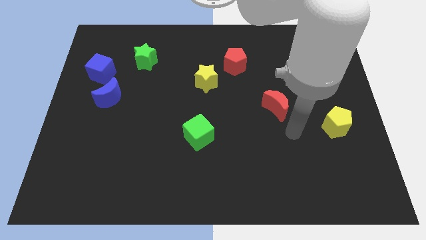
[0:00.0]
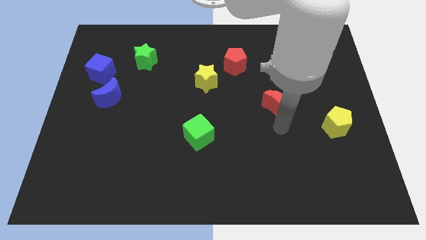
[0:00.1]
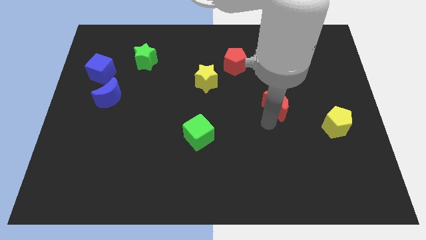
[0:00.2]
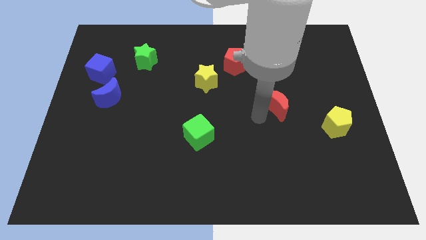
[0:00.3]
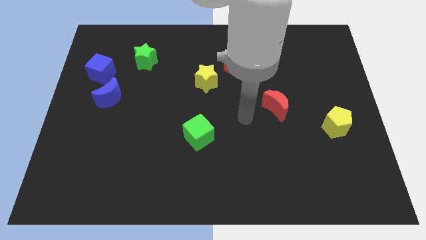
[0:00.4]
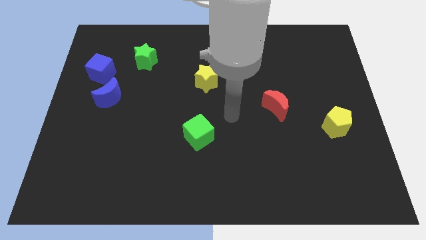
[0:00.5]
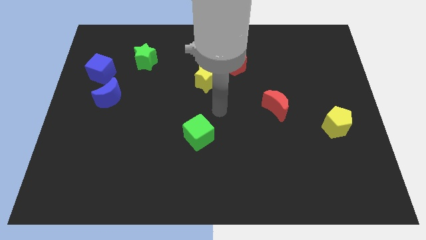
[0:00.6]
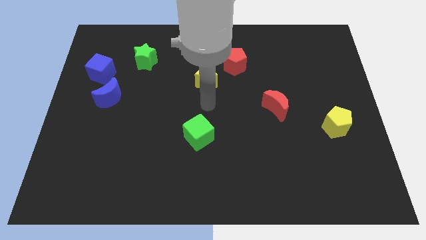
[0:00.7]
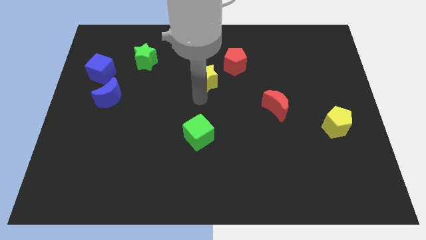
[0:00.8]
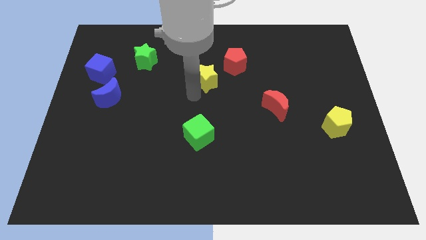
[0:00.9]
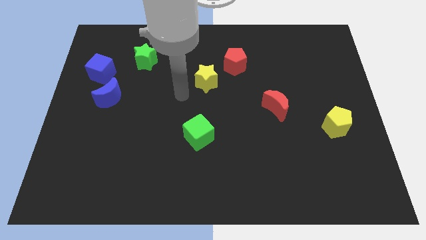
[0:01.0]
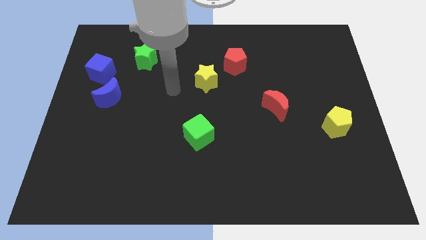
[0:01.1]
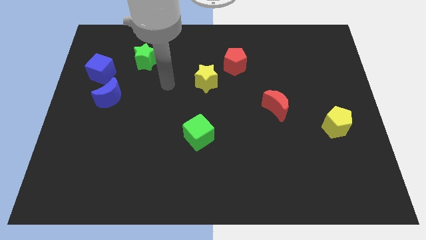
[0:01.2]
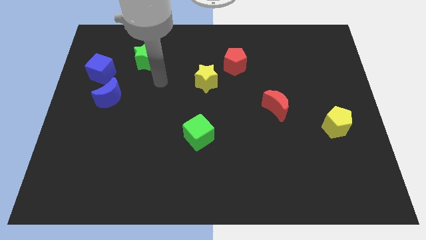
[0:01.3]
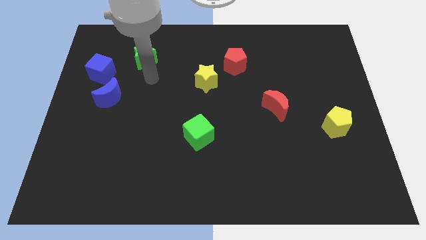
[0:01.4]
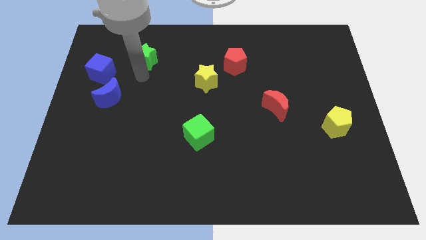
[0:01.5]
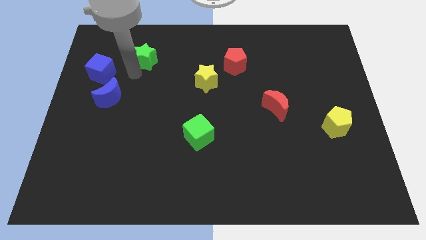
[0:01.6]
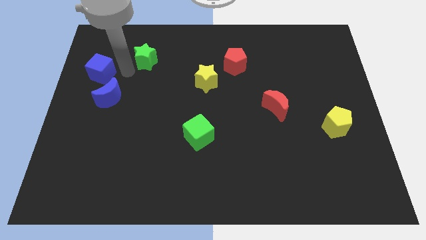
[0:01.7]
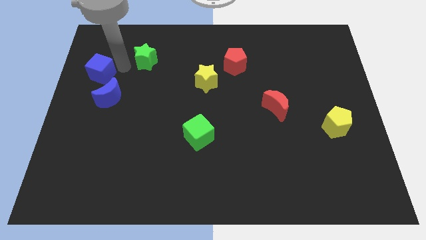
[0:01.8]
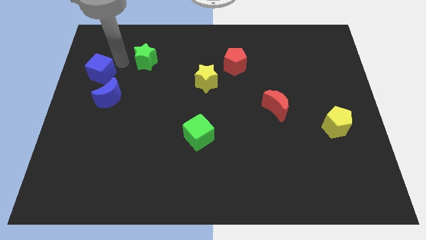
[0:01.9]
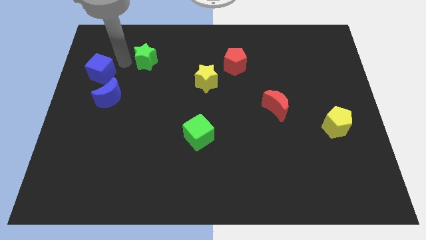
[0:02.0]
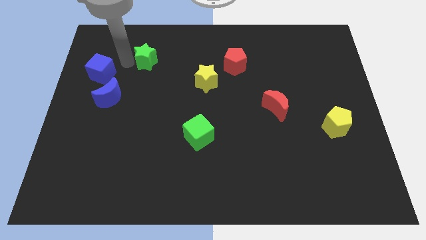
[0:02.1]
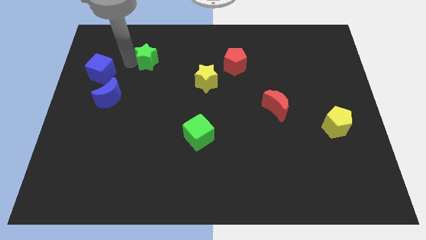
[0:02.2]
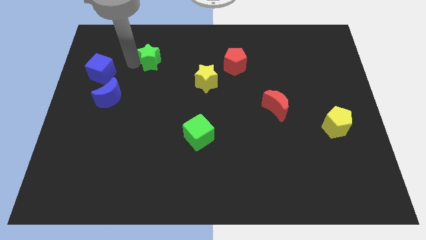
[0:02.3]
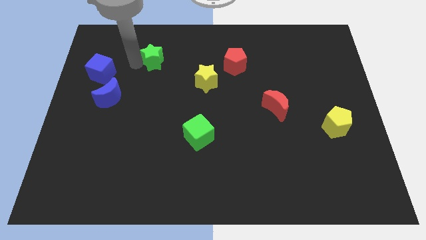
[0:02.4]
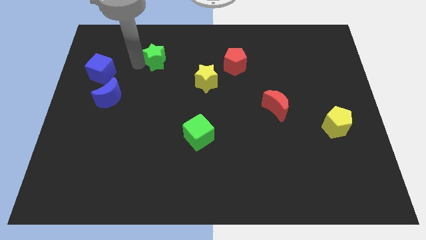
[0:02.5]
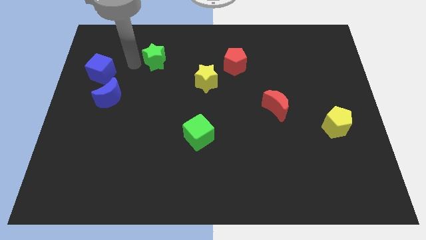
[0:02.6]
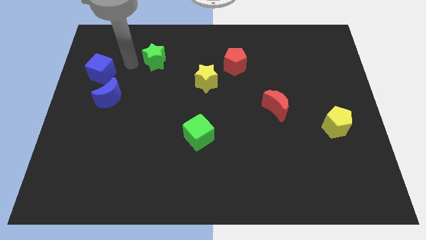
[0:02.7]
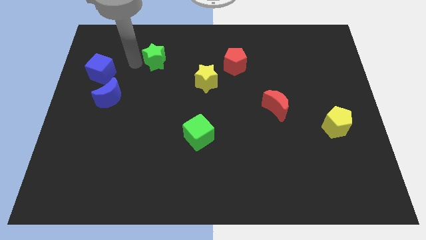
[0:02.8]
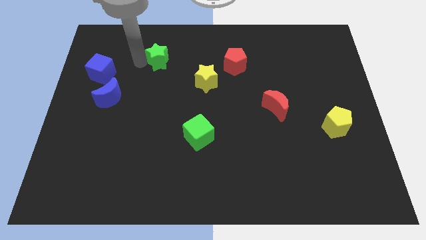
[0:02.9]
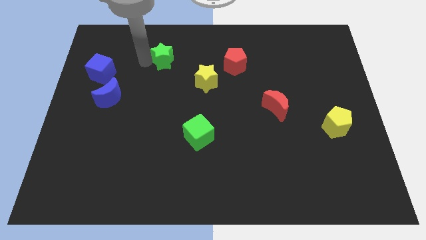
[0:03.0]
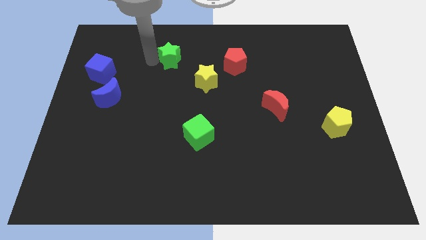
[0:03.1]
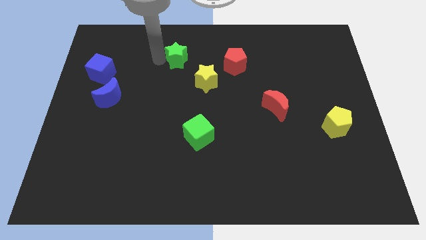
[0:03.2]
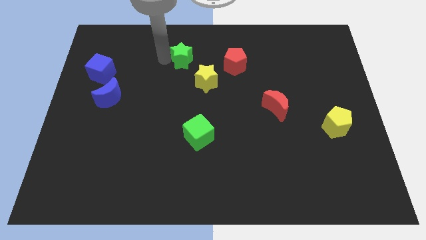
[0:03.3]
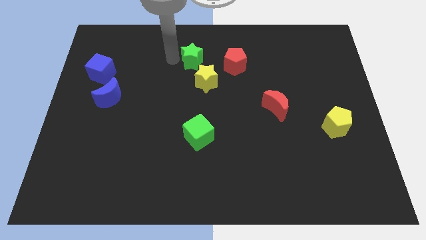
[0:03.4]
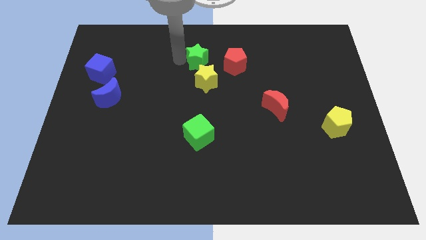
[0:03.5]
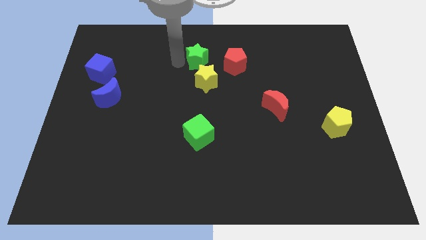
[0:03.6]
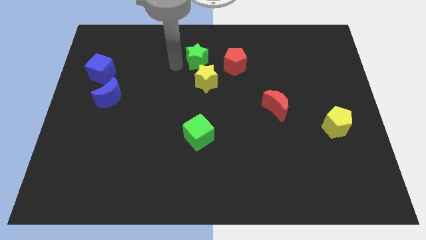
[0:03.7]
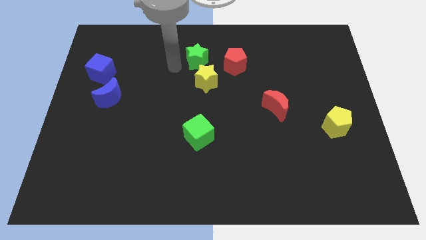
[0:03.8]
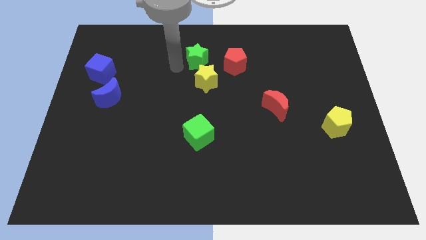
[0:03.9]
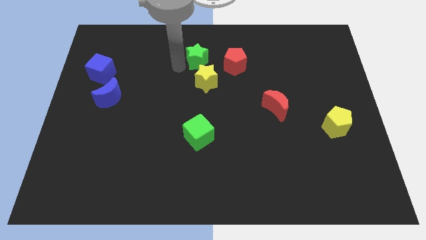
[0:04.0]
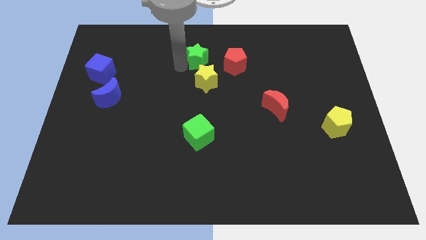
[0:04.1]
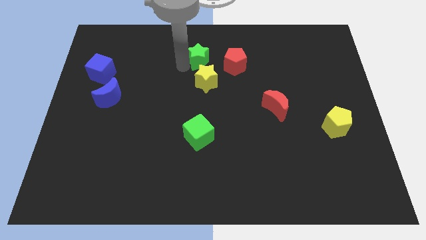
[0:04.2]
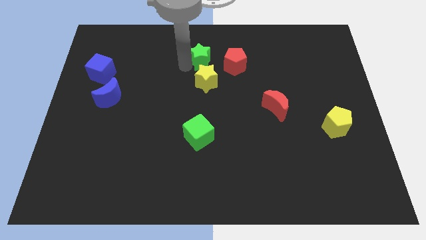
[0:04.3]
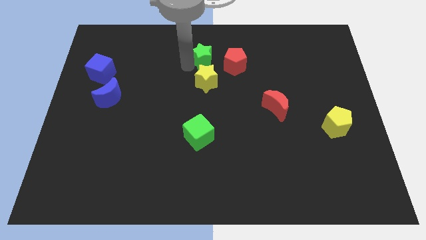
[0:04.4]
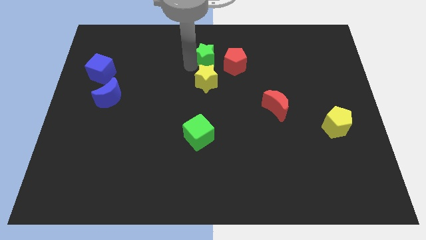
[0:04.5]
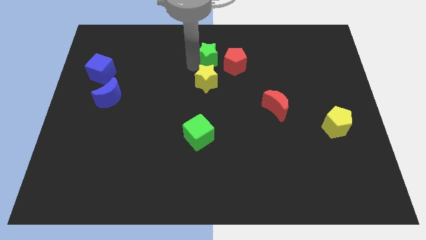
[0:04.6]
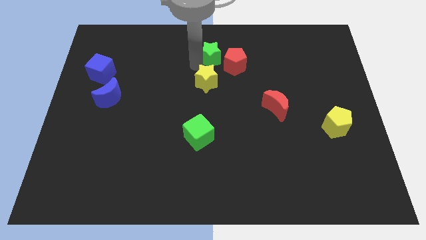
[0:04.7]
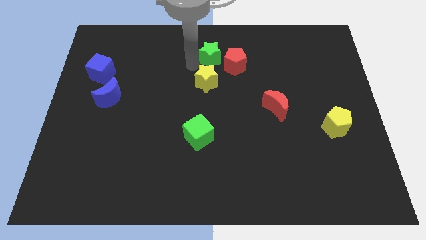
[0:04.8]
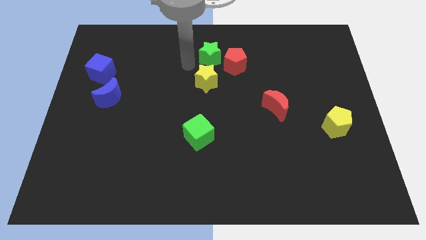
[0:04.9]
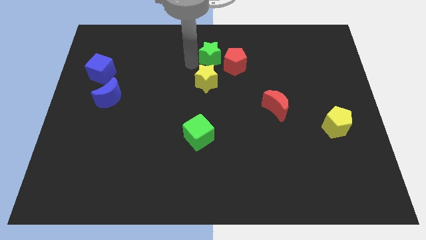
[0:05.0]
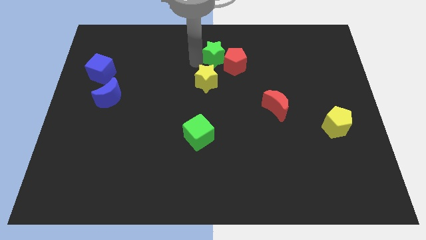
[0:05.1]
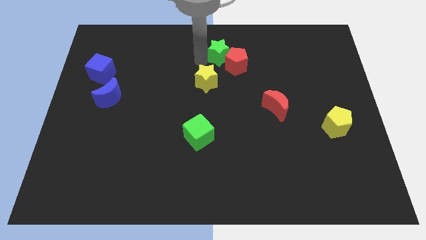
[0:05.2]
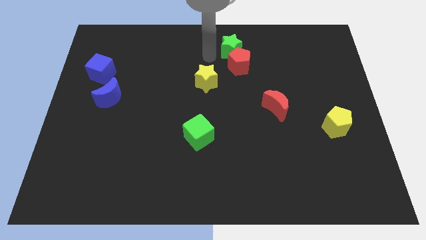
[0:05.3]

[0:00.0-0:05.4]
move the green star to the right

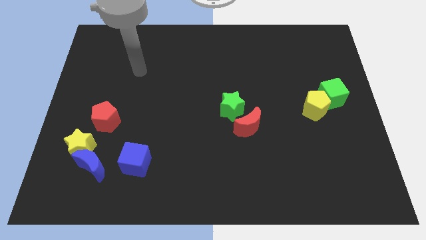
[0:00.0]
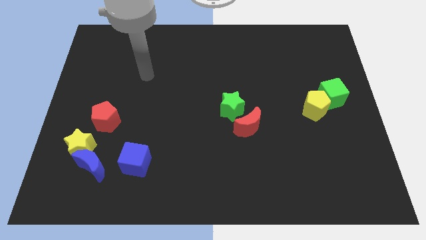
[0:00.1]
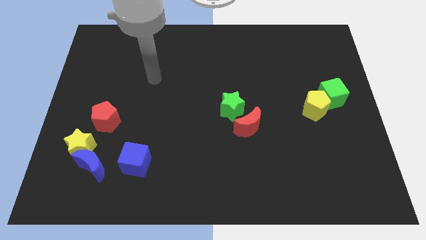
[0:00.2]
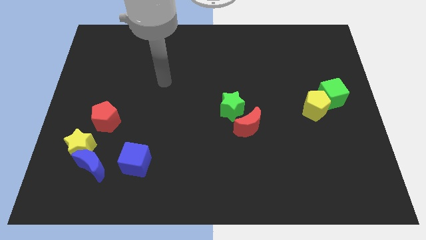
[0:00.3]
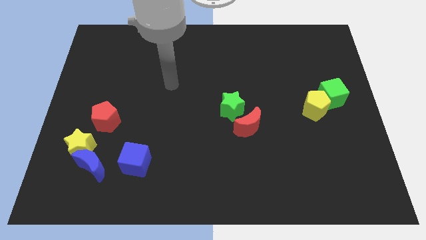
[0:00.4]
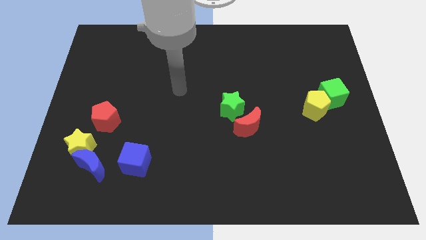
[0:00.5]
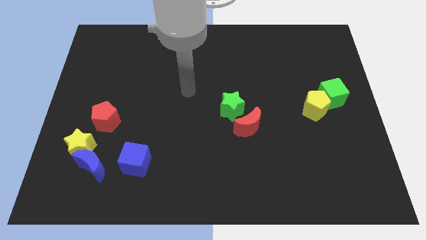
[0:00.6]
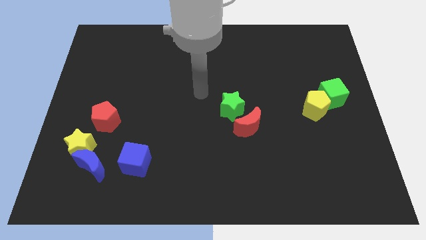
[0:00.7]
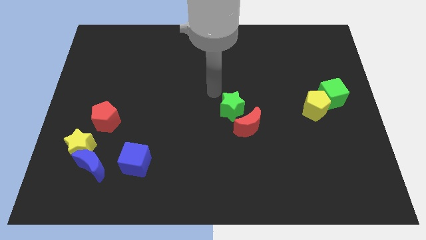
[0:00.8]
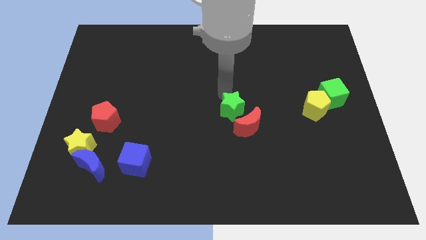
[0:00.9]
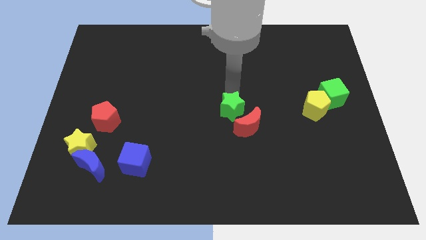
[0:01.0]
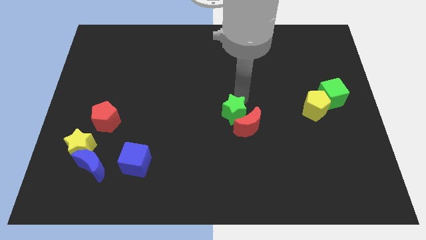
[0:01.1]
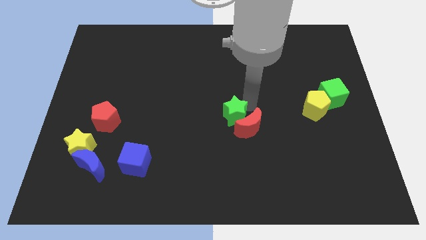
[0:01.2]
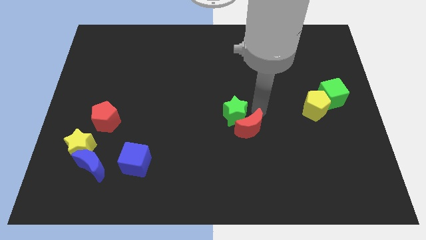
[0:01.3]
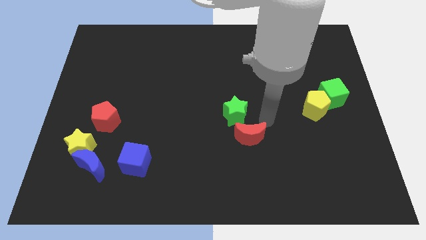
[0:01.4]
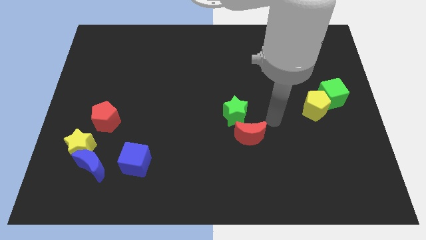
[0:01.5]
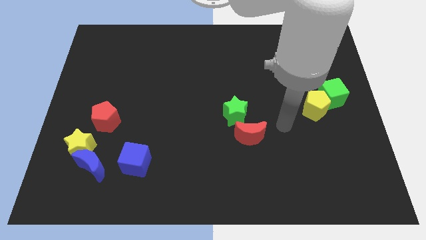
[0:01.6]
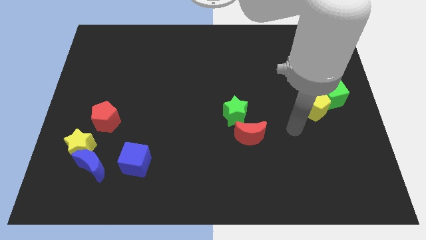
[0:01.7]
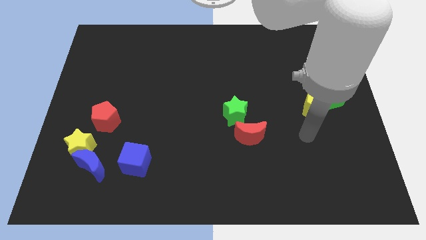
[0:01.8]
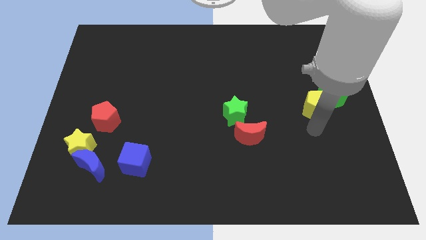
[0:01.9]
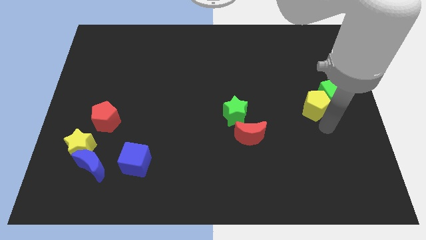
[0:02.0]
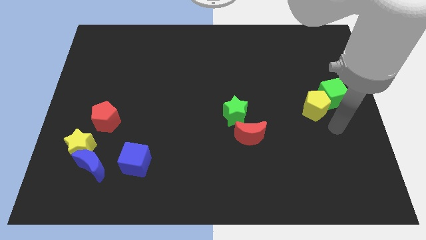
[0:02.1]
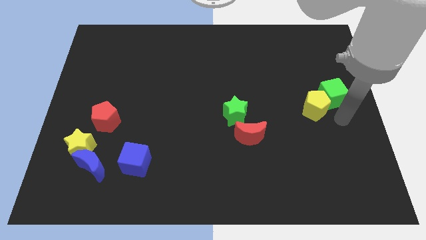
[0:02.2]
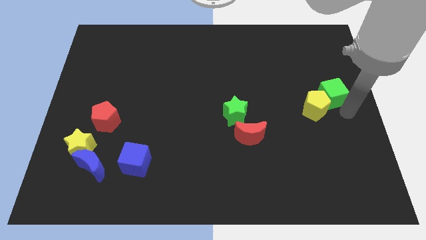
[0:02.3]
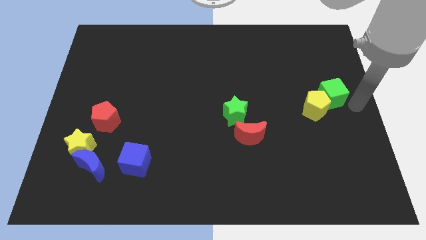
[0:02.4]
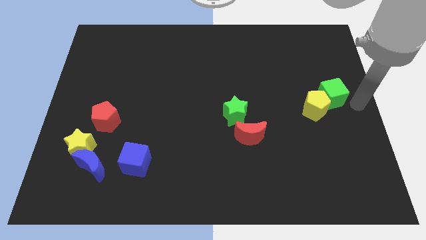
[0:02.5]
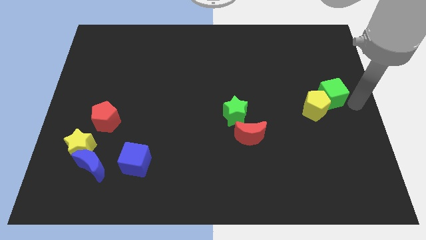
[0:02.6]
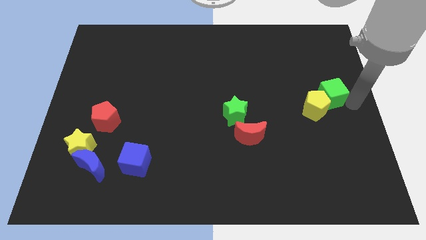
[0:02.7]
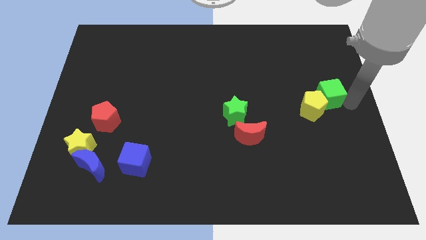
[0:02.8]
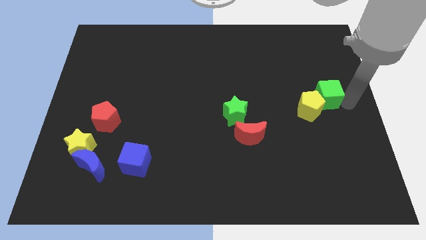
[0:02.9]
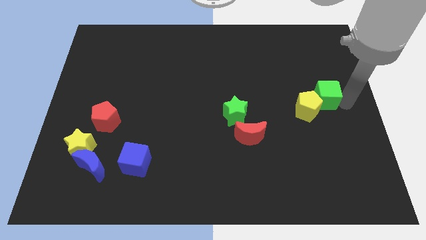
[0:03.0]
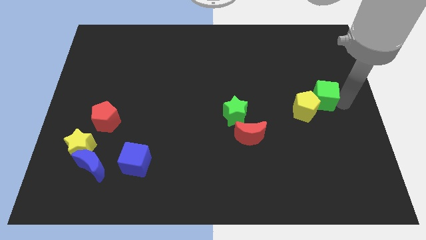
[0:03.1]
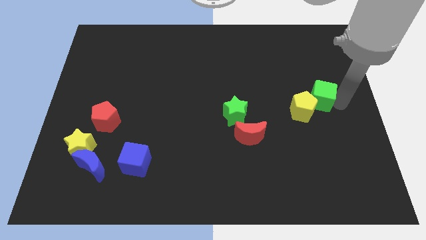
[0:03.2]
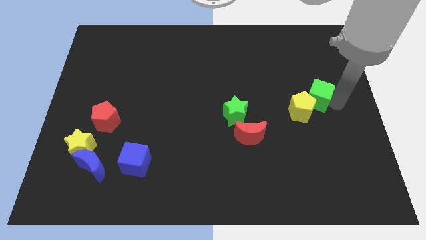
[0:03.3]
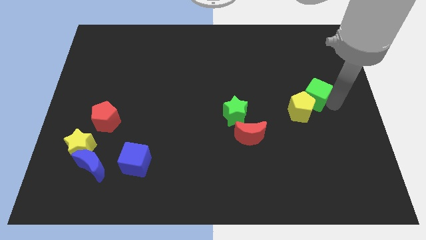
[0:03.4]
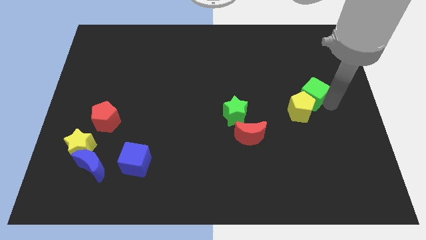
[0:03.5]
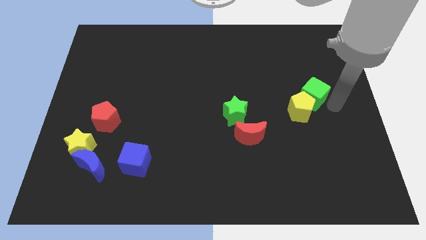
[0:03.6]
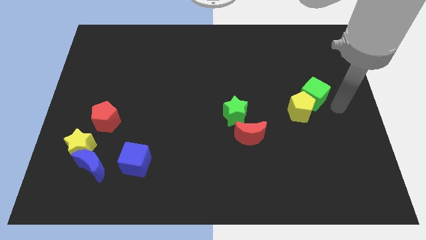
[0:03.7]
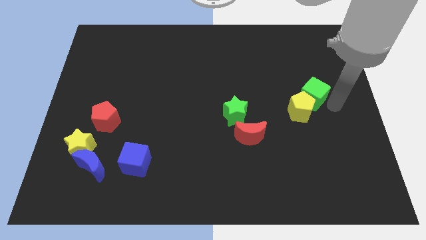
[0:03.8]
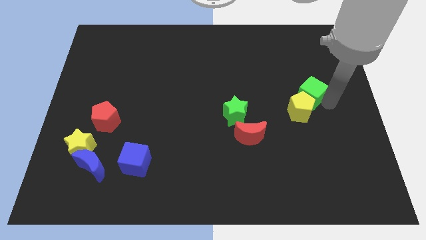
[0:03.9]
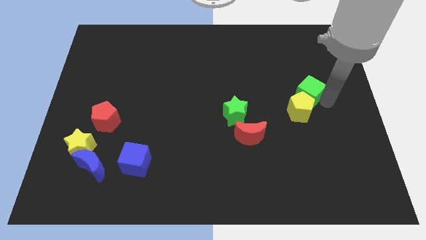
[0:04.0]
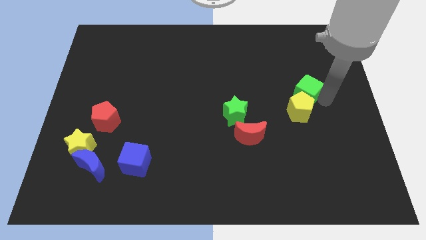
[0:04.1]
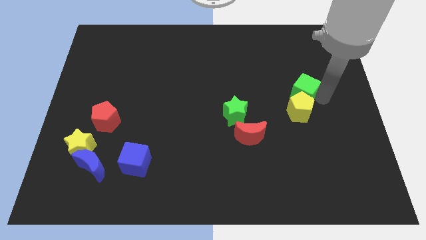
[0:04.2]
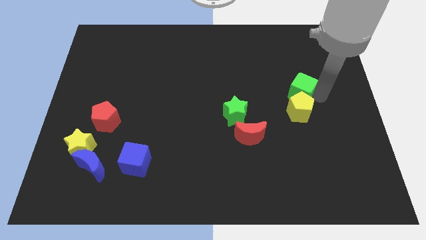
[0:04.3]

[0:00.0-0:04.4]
slightly move the green cube left
